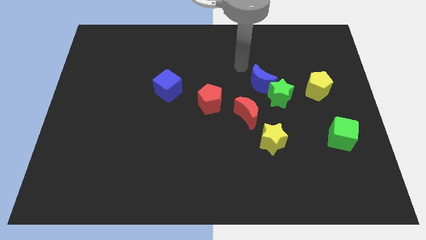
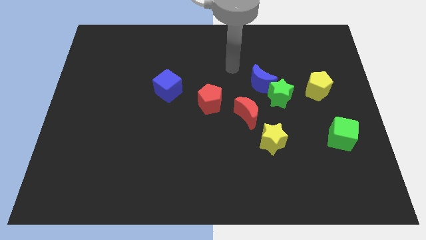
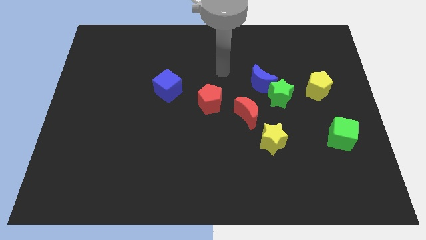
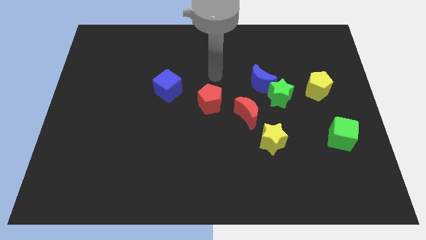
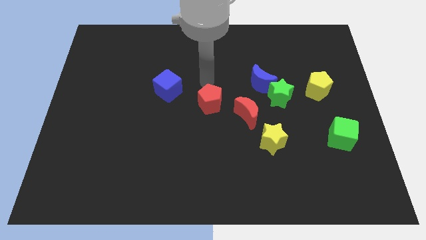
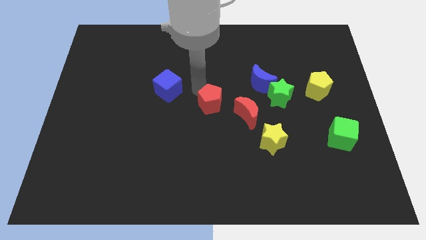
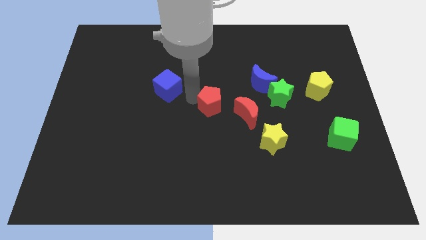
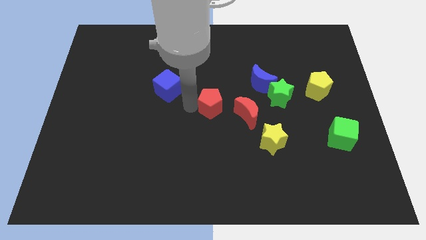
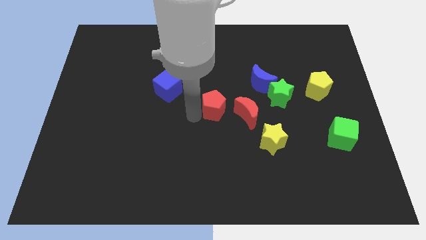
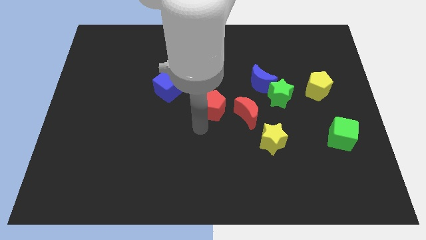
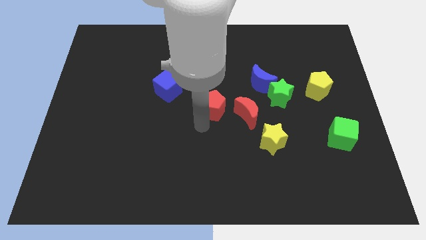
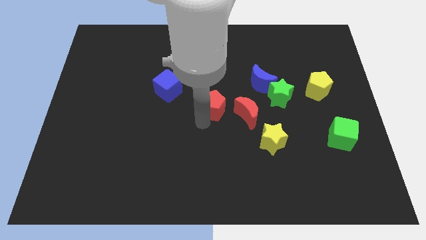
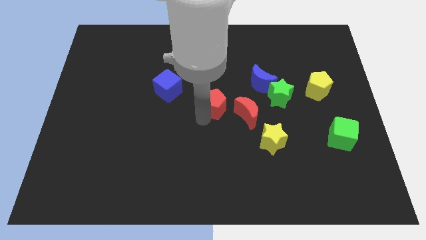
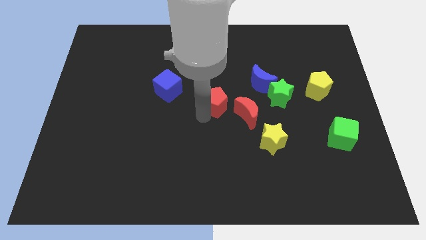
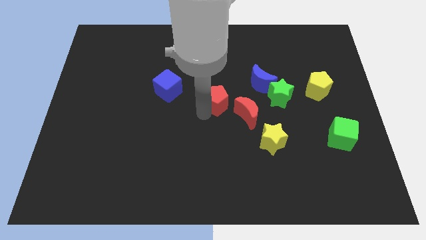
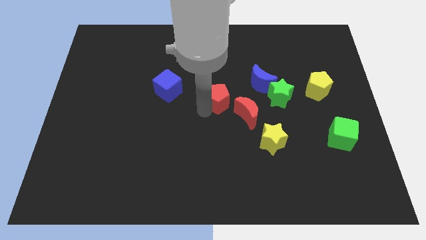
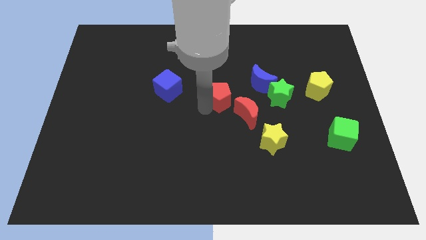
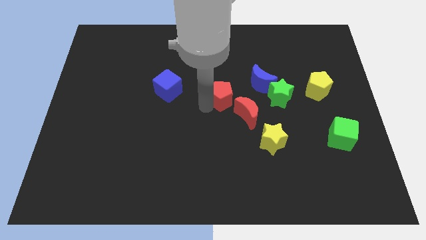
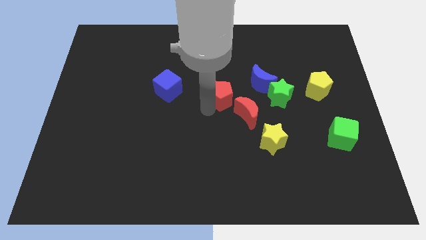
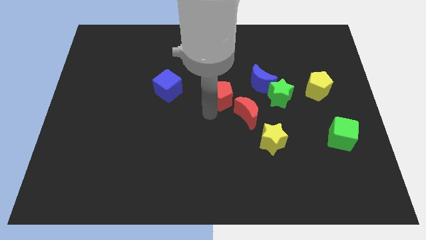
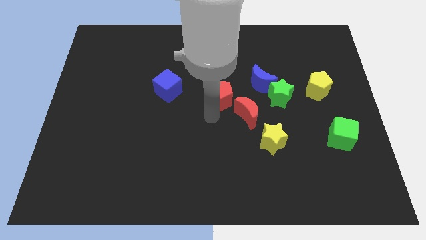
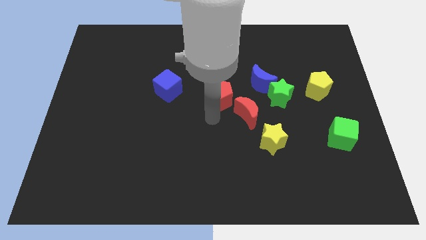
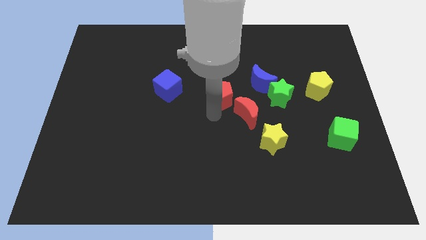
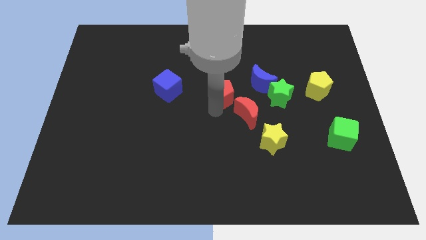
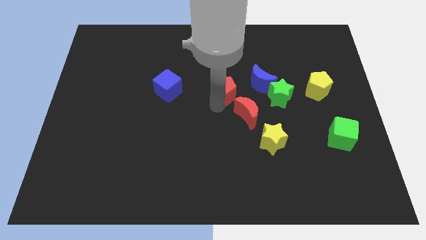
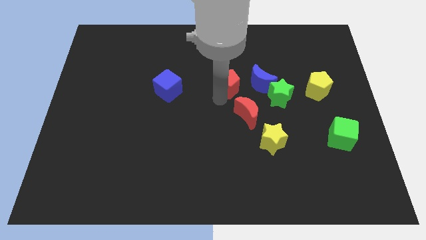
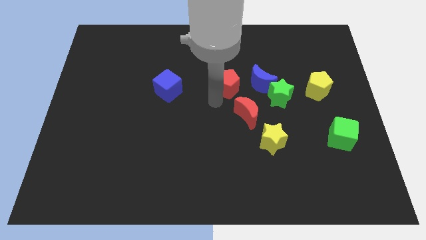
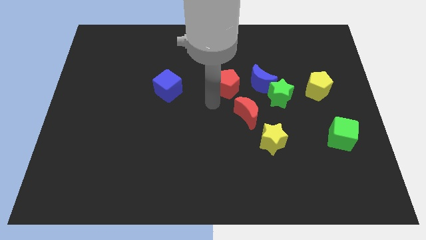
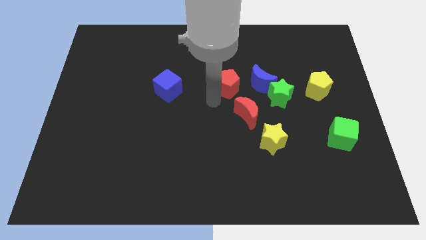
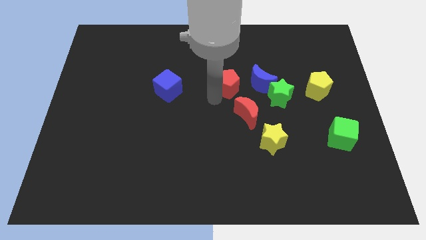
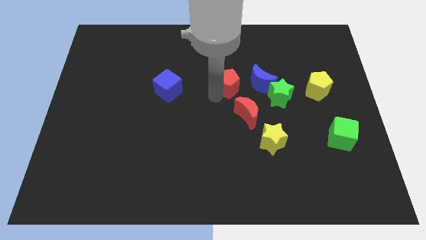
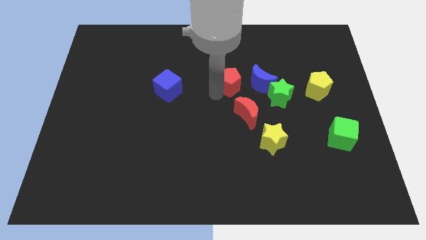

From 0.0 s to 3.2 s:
move the red pentagon upwards and right diagonally a little

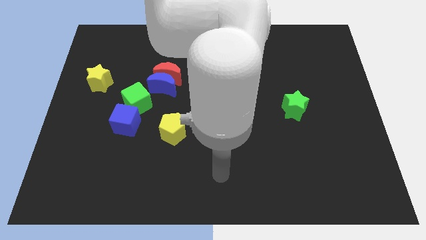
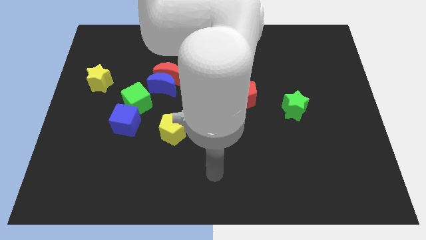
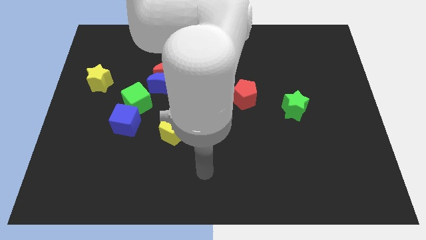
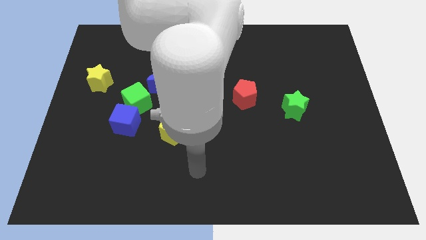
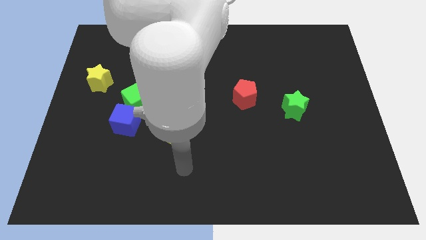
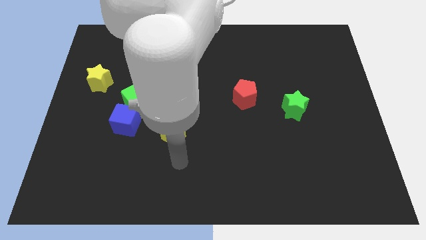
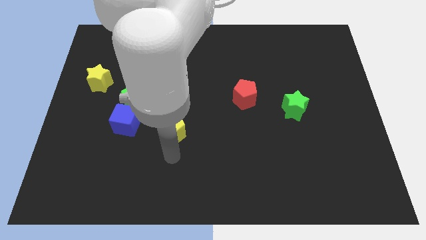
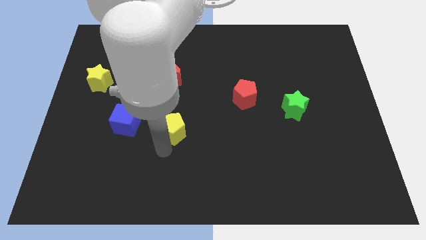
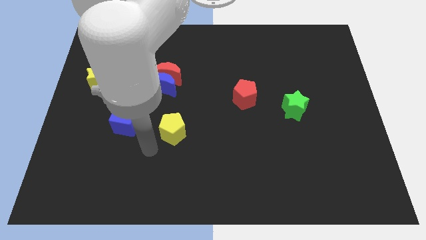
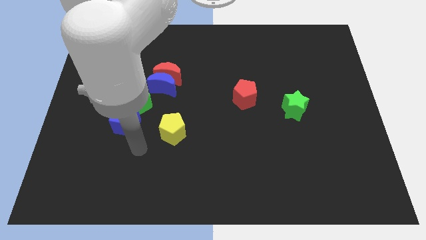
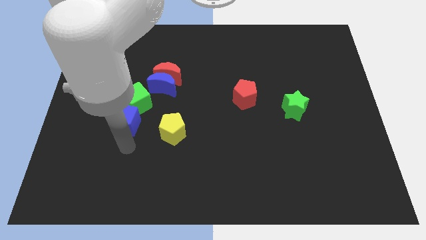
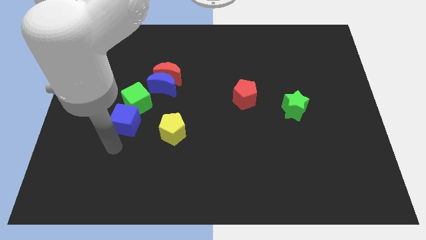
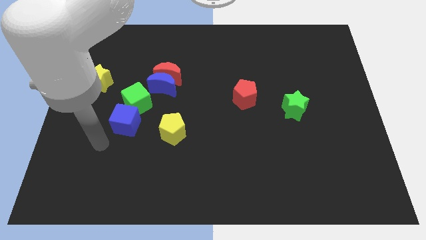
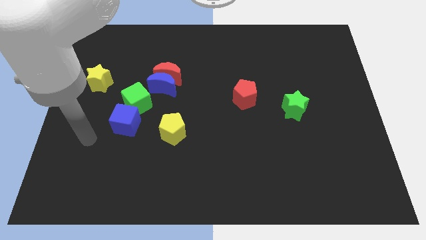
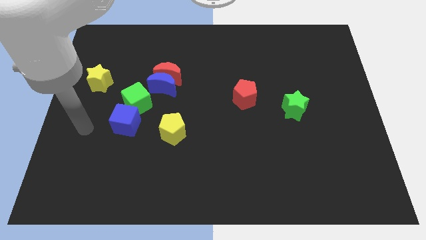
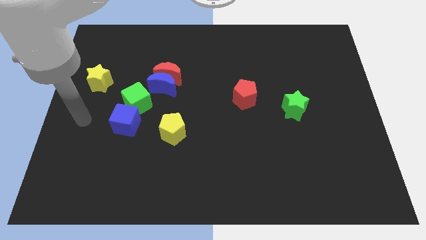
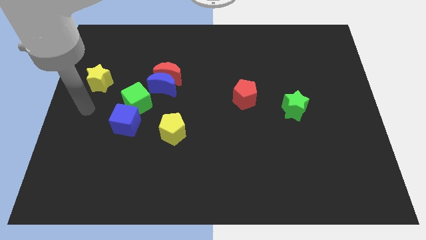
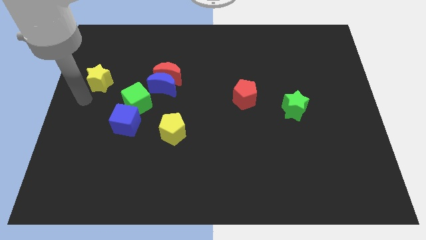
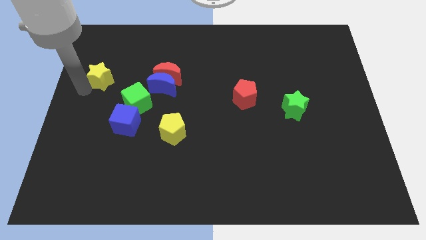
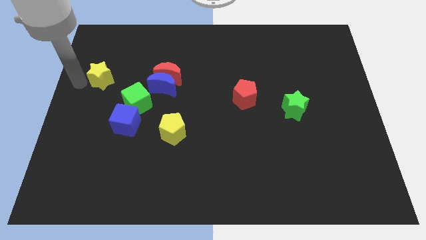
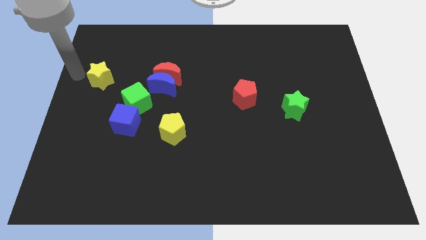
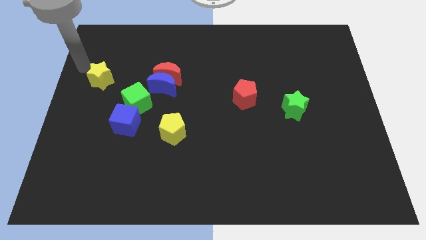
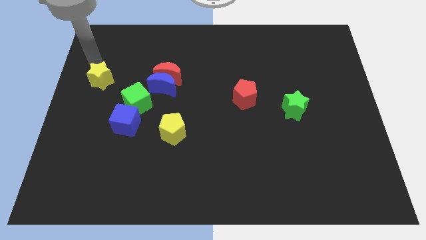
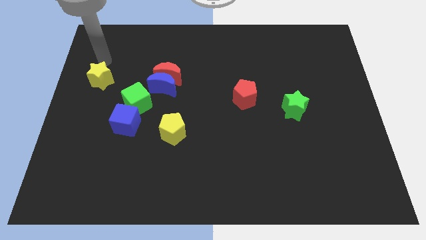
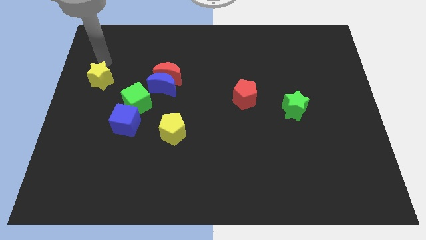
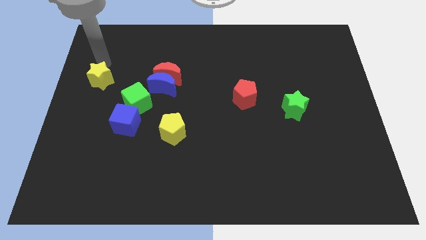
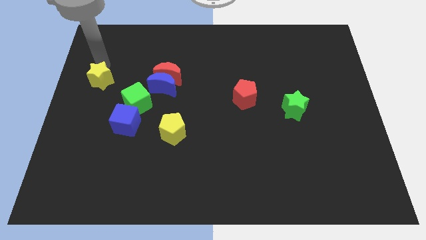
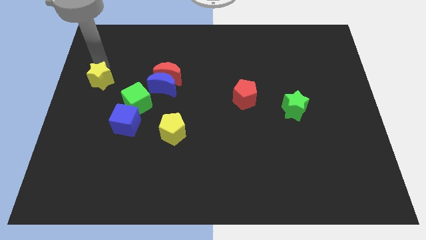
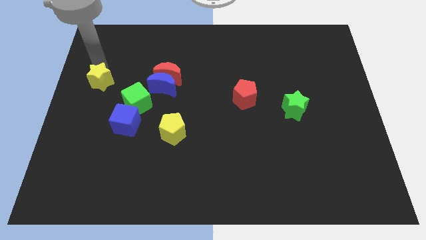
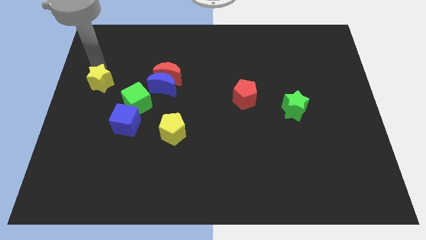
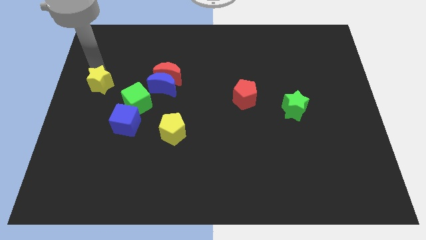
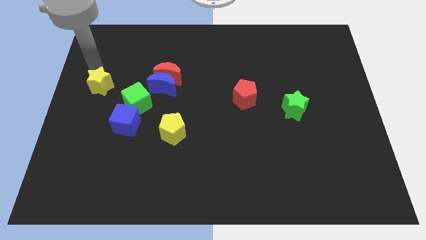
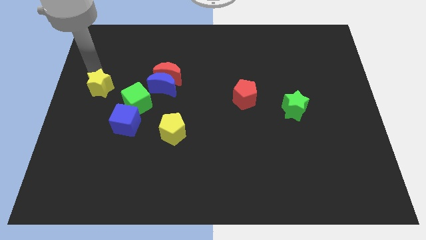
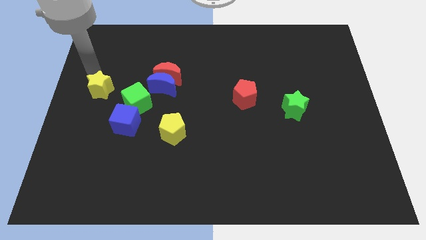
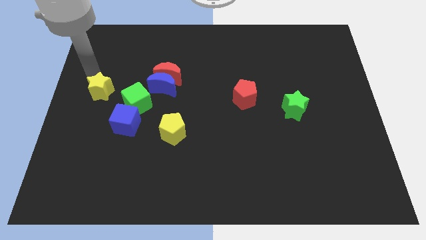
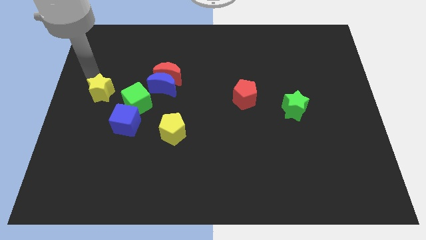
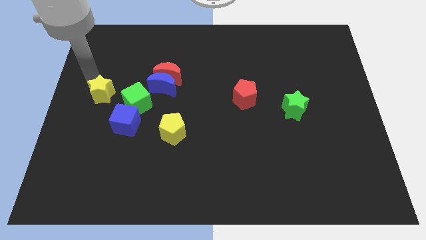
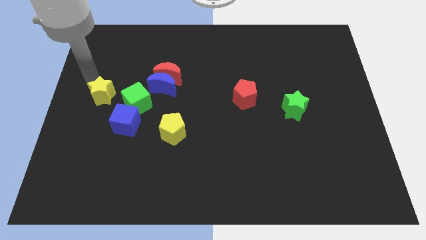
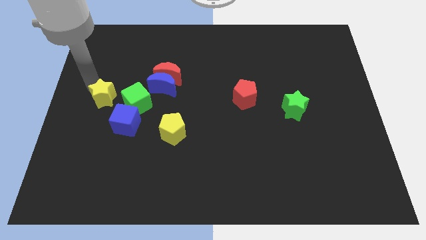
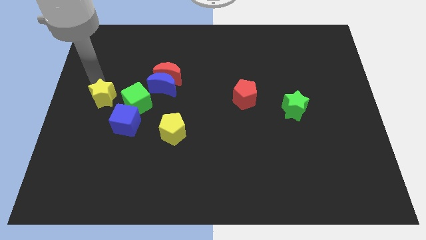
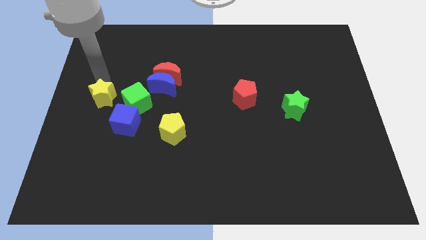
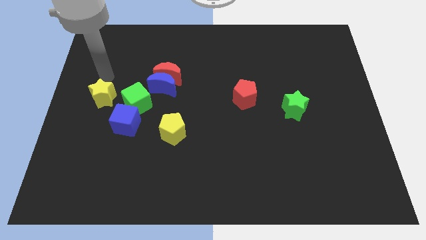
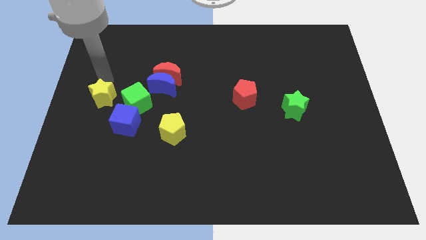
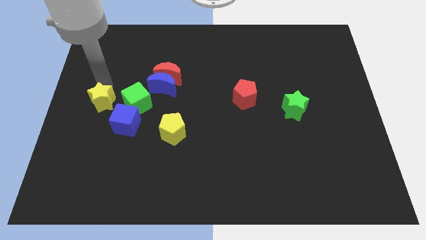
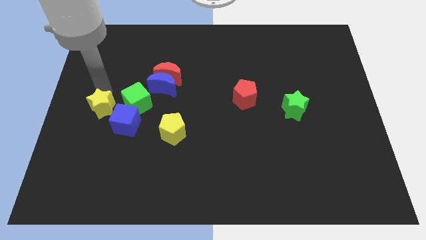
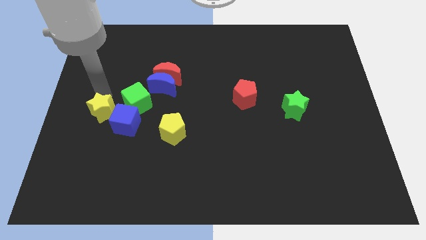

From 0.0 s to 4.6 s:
move the yellow star downwards and then right a bit

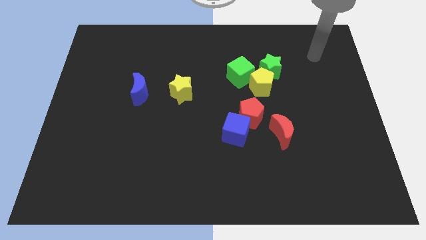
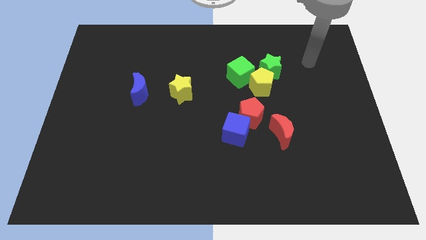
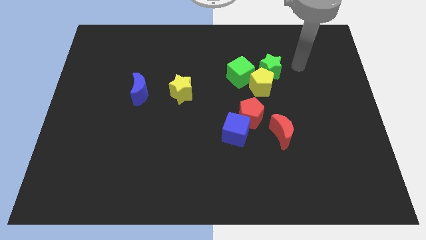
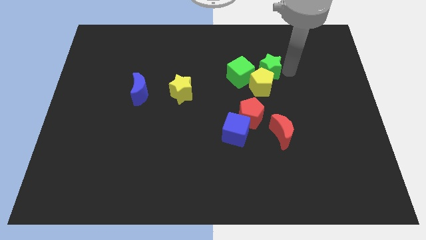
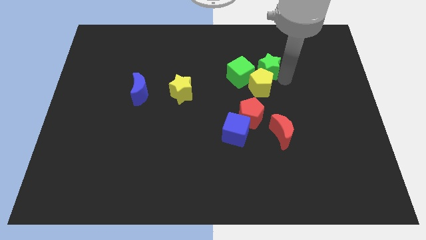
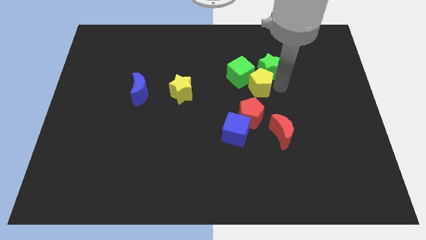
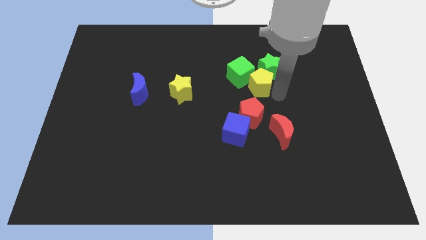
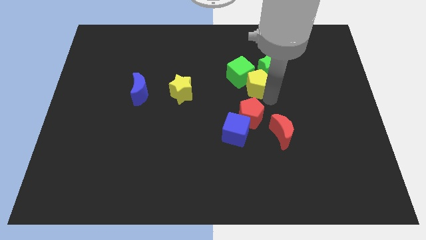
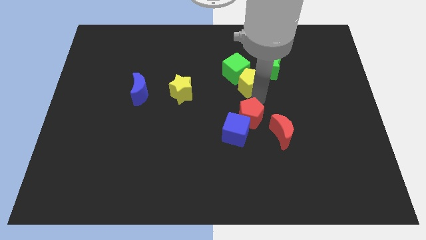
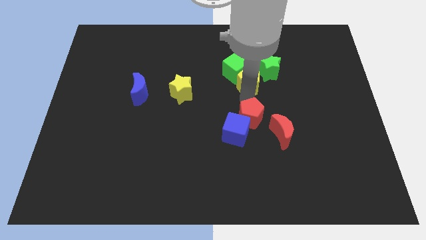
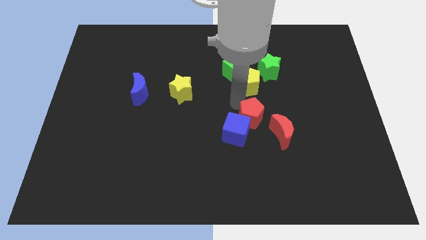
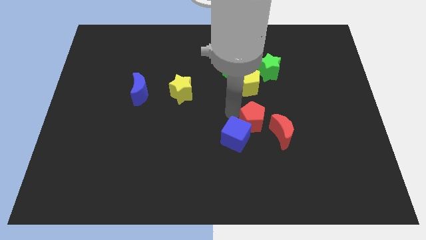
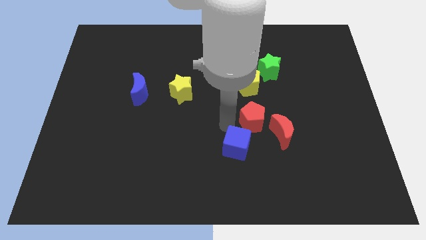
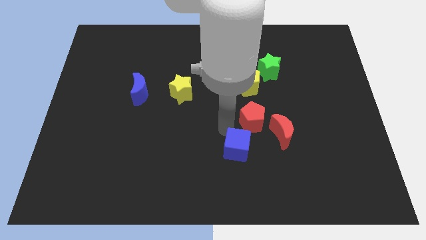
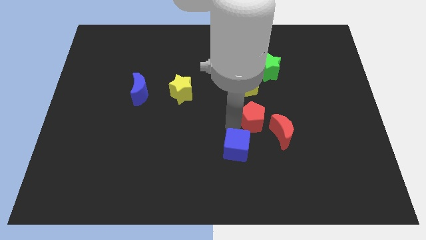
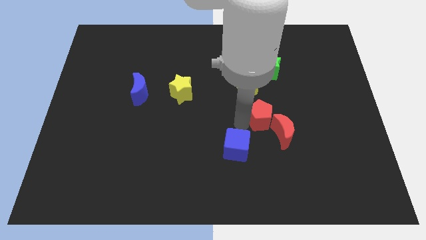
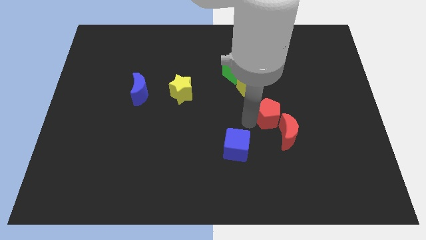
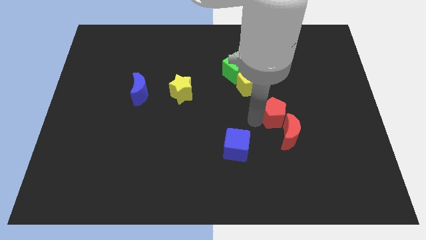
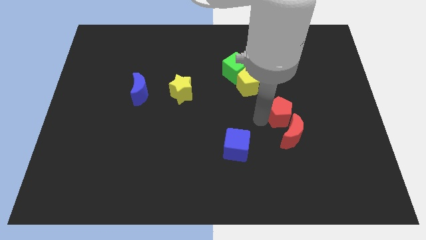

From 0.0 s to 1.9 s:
slightly move the red pentagon right
